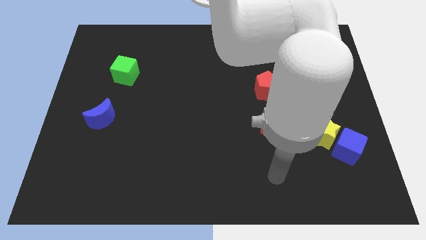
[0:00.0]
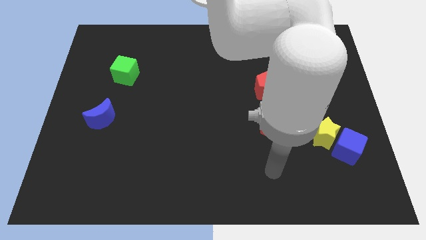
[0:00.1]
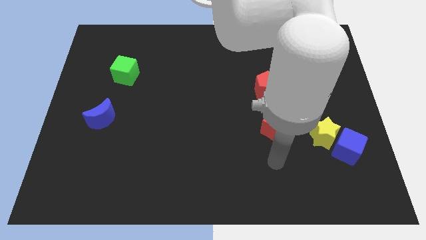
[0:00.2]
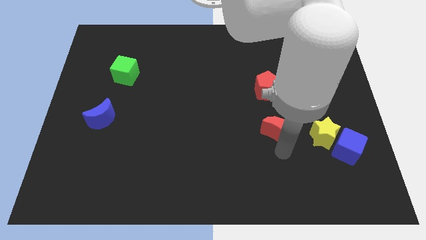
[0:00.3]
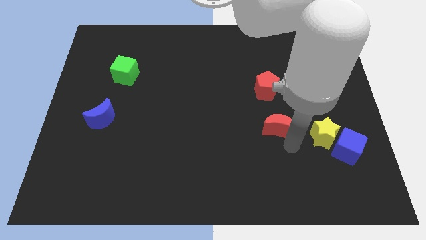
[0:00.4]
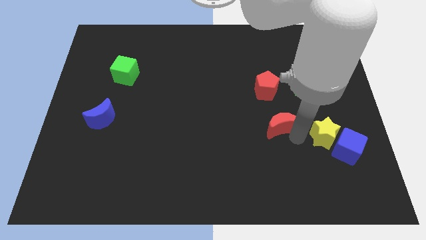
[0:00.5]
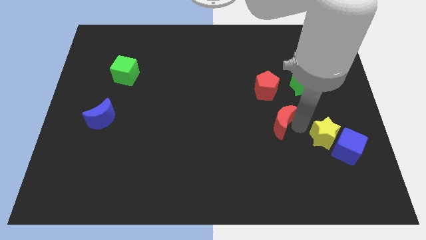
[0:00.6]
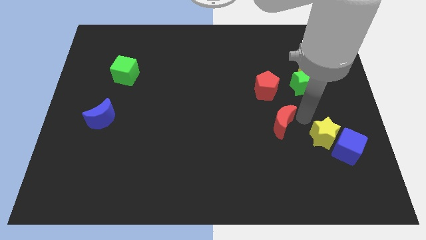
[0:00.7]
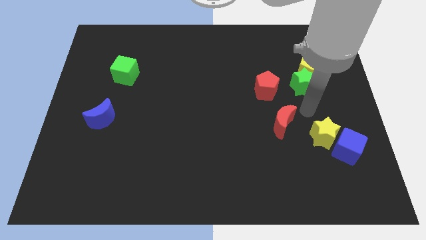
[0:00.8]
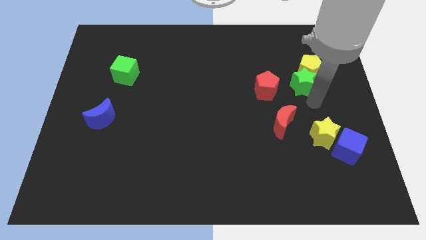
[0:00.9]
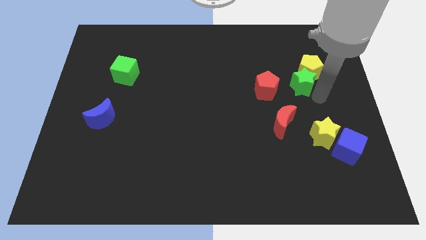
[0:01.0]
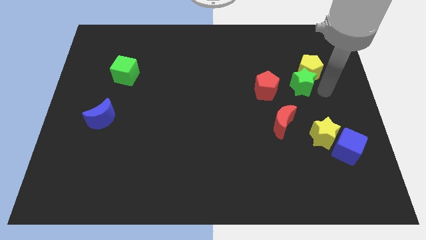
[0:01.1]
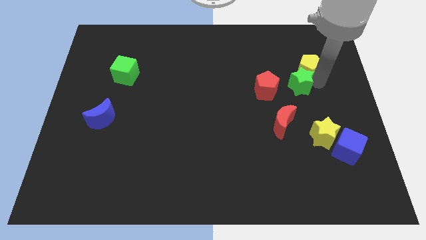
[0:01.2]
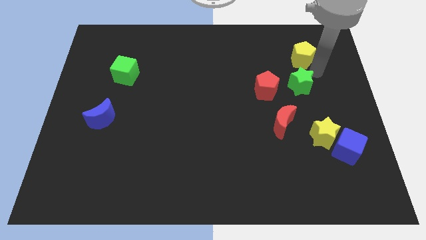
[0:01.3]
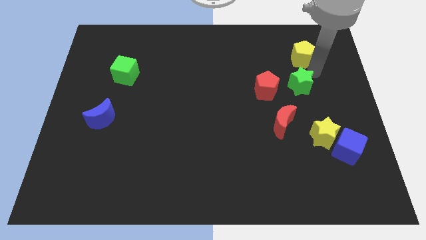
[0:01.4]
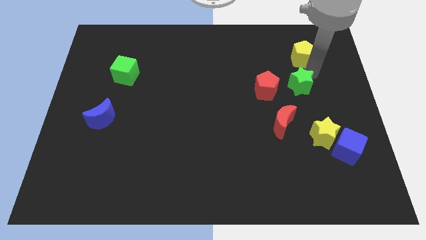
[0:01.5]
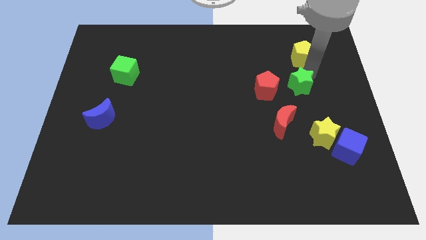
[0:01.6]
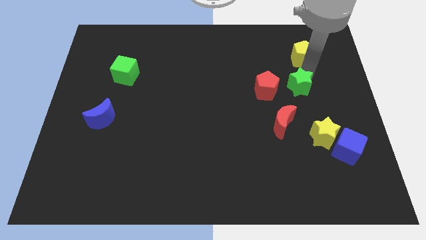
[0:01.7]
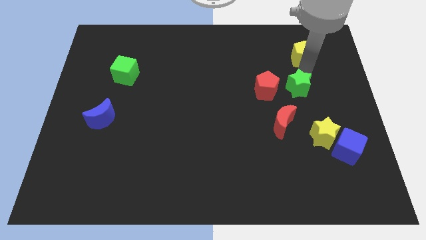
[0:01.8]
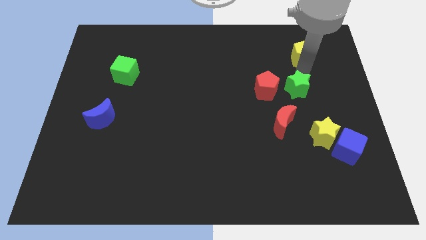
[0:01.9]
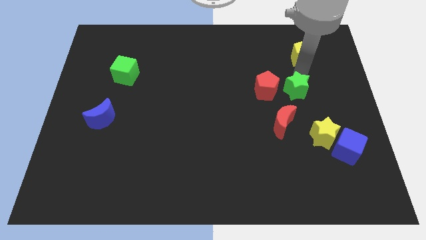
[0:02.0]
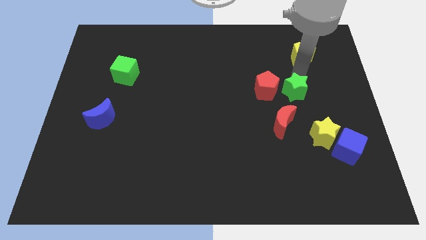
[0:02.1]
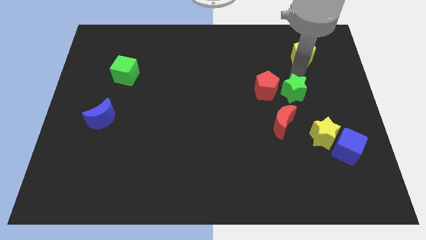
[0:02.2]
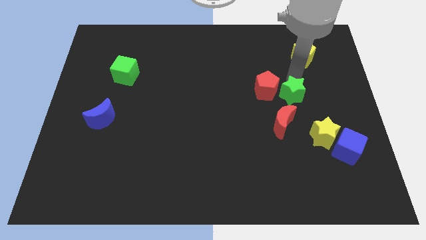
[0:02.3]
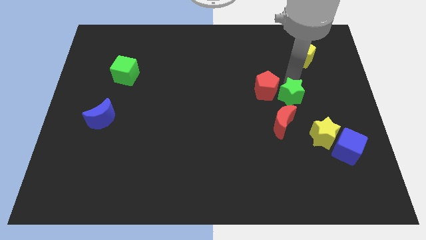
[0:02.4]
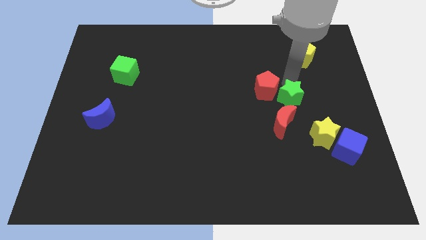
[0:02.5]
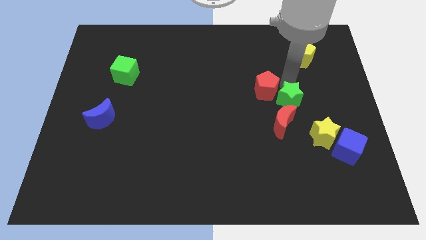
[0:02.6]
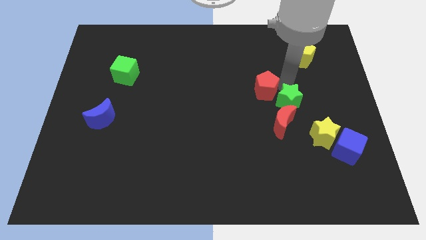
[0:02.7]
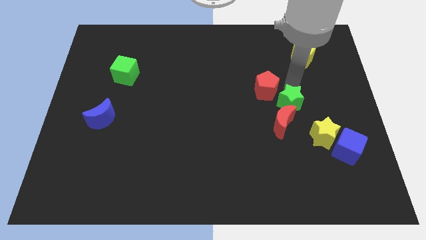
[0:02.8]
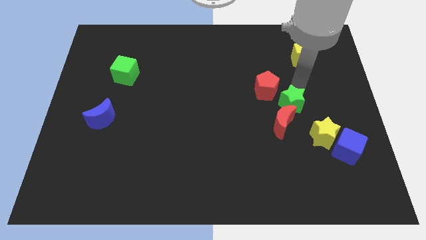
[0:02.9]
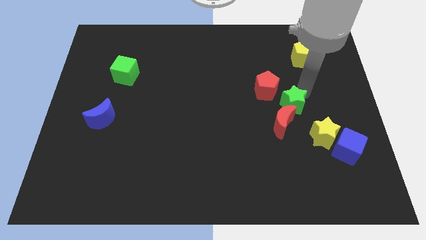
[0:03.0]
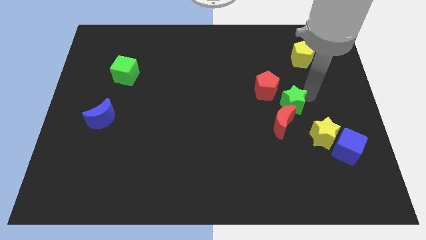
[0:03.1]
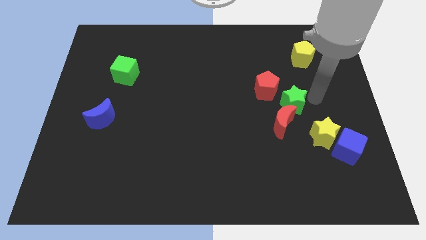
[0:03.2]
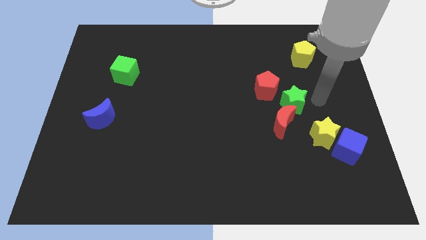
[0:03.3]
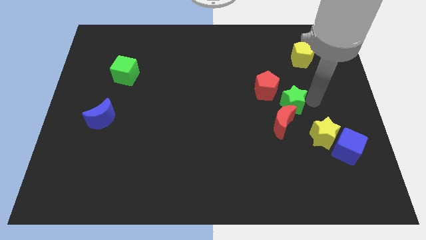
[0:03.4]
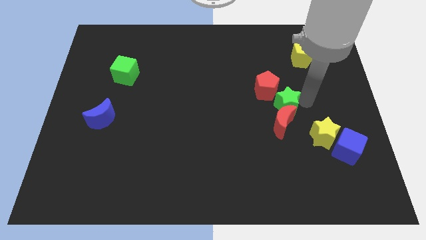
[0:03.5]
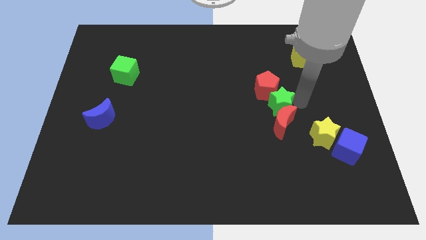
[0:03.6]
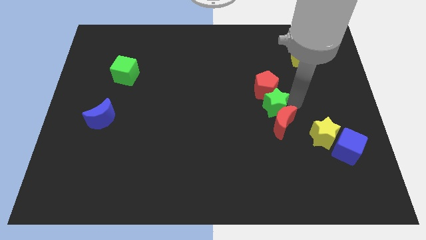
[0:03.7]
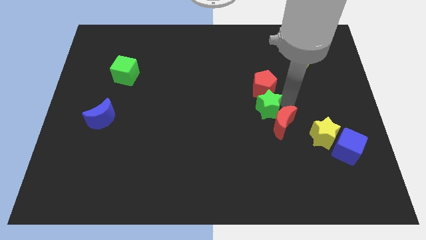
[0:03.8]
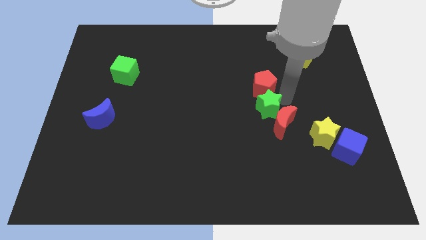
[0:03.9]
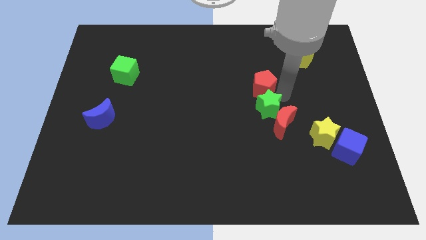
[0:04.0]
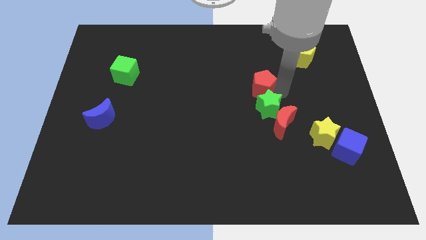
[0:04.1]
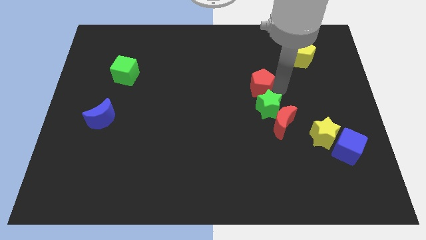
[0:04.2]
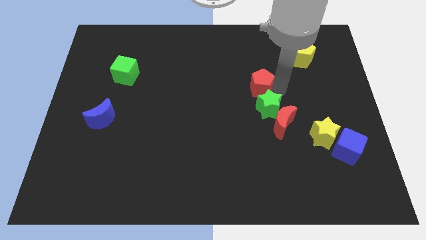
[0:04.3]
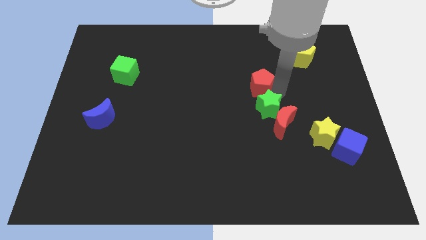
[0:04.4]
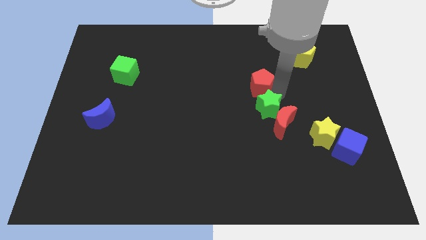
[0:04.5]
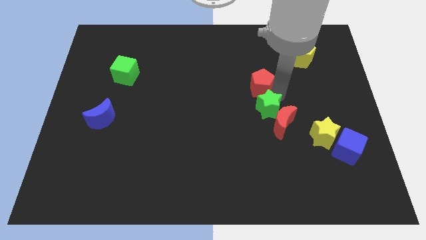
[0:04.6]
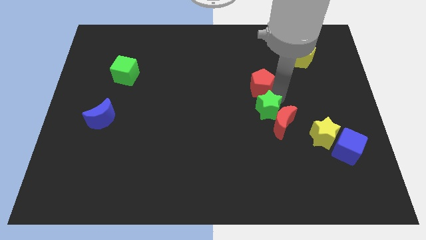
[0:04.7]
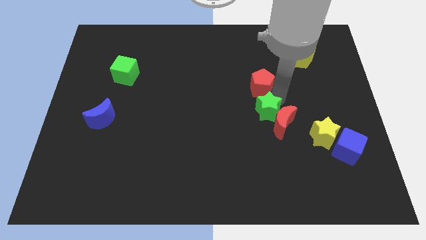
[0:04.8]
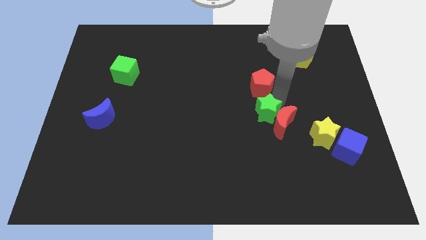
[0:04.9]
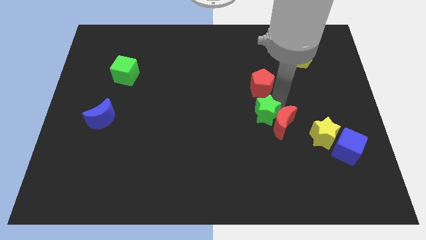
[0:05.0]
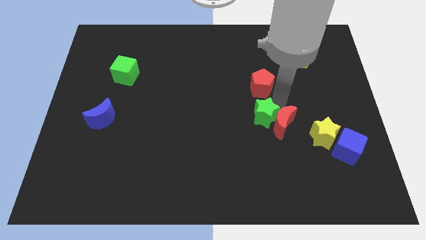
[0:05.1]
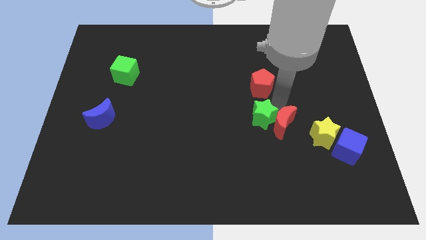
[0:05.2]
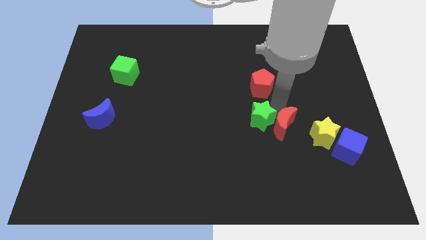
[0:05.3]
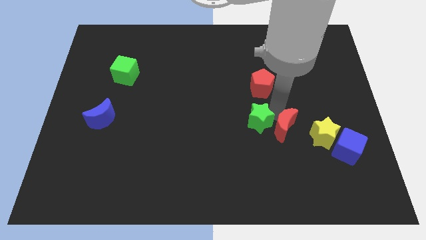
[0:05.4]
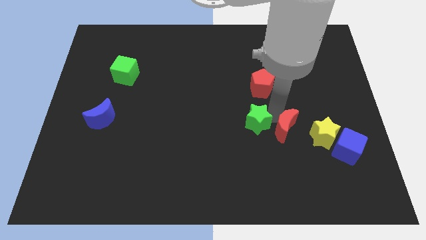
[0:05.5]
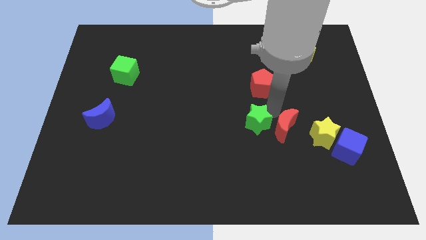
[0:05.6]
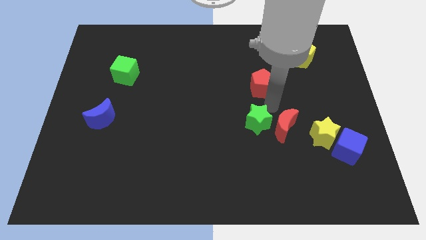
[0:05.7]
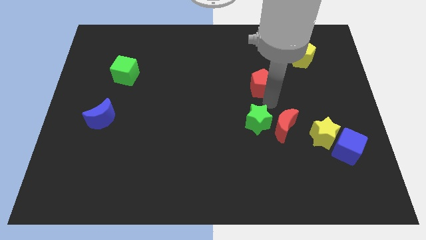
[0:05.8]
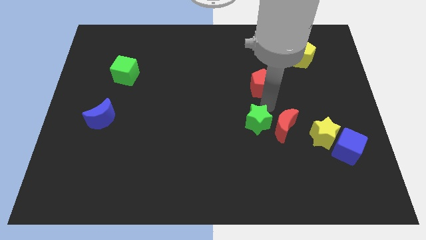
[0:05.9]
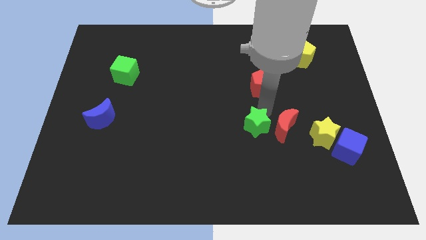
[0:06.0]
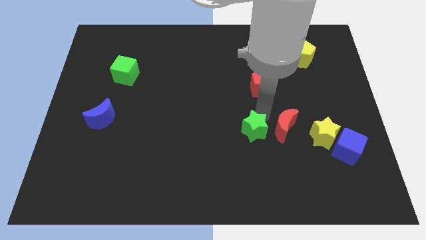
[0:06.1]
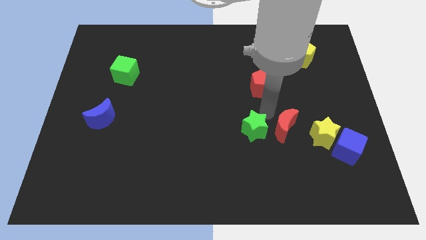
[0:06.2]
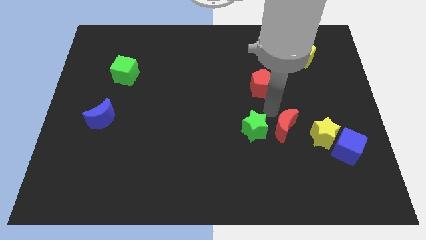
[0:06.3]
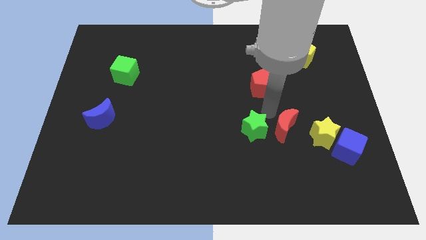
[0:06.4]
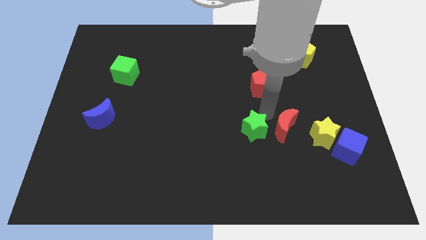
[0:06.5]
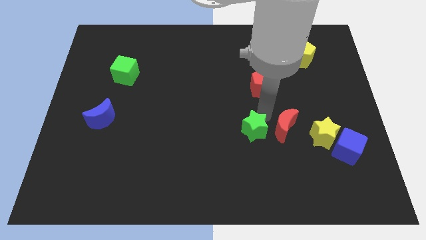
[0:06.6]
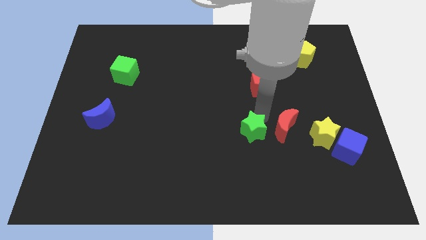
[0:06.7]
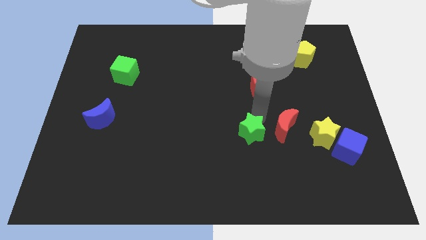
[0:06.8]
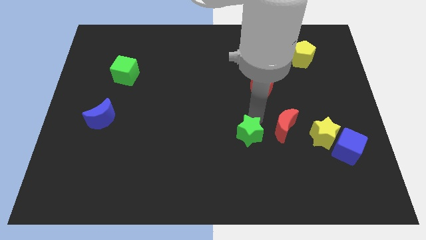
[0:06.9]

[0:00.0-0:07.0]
push the green star down and to the left diagonally

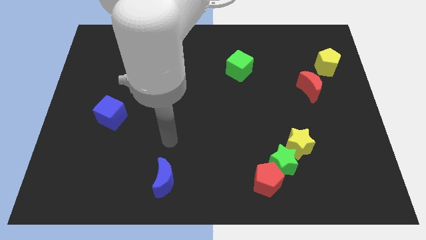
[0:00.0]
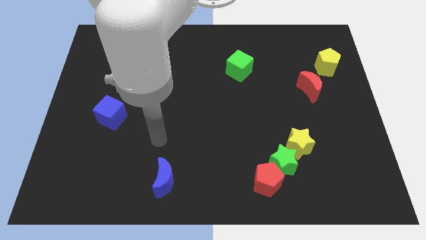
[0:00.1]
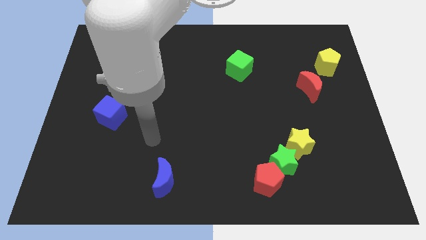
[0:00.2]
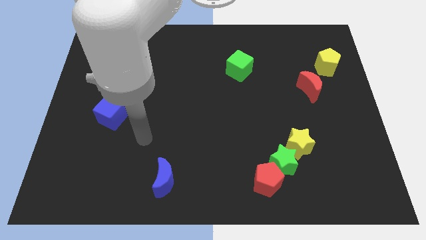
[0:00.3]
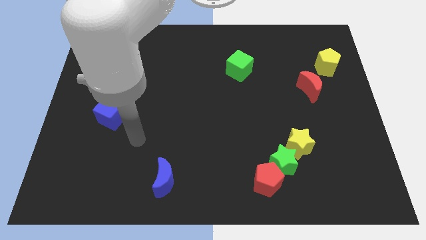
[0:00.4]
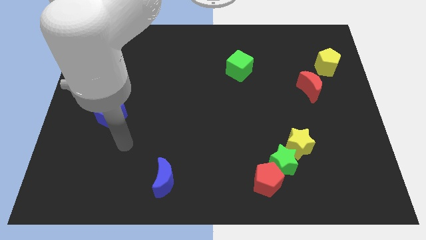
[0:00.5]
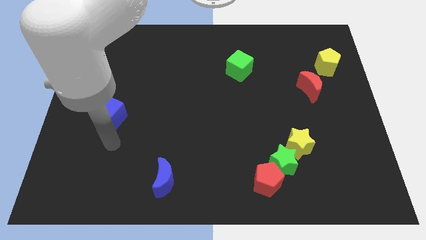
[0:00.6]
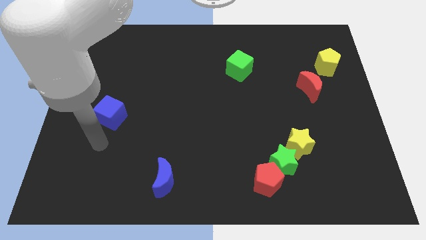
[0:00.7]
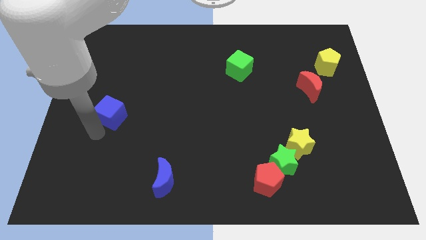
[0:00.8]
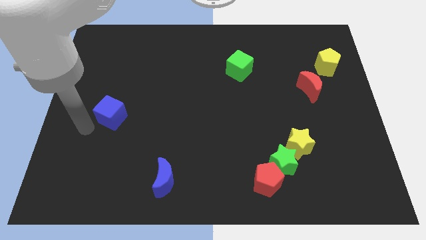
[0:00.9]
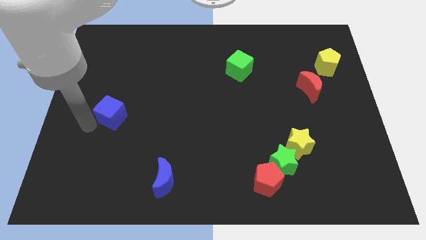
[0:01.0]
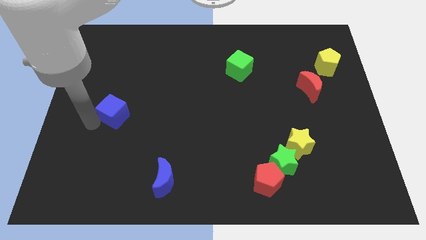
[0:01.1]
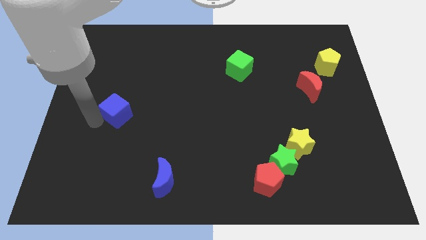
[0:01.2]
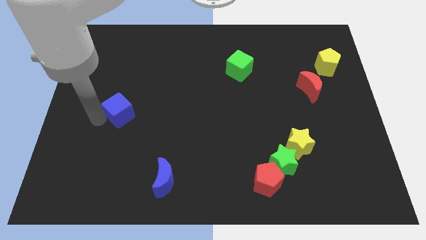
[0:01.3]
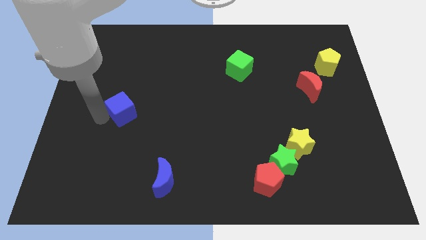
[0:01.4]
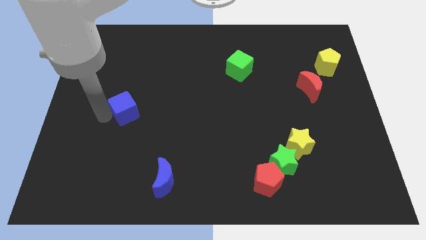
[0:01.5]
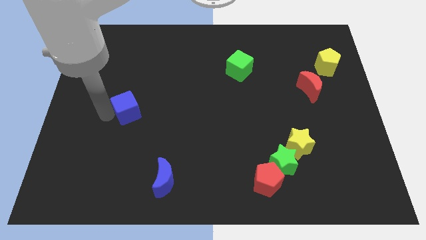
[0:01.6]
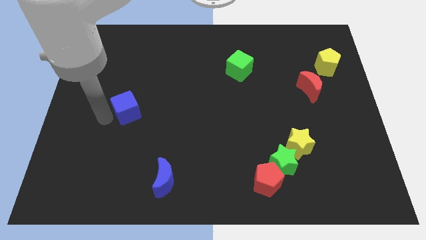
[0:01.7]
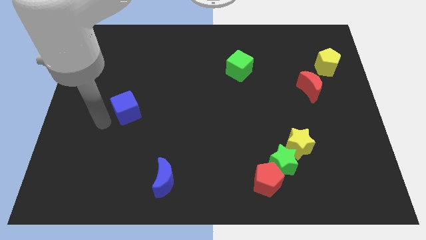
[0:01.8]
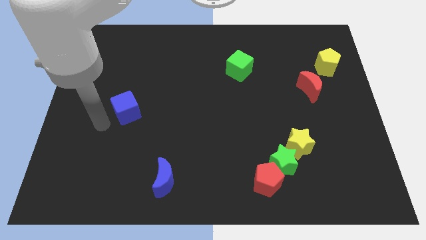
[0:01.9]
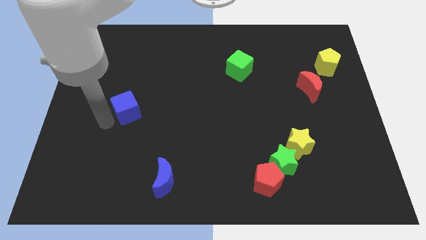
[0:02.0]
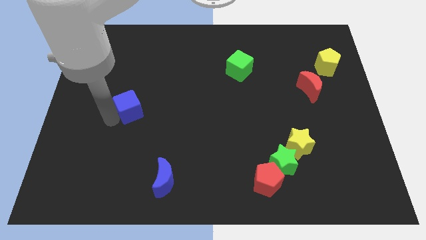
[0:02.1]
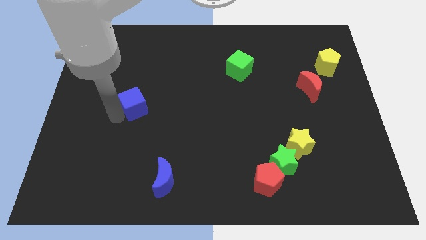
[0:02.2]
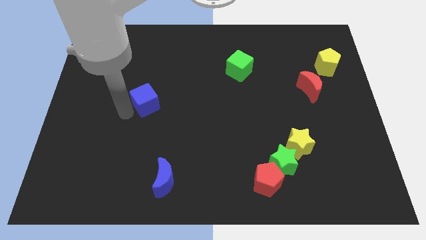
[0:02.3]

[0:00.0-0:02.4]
move the blue cube a little up and then right
